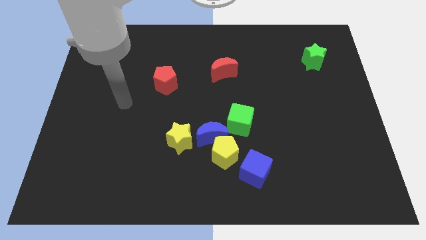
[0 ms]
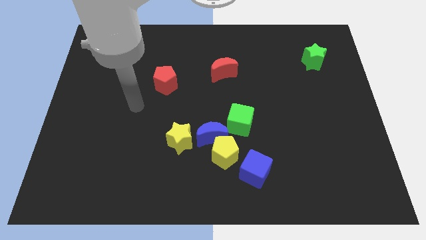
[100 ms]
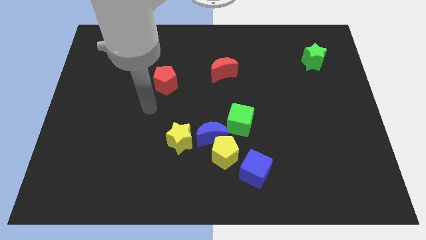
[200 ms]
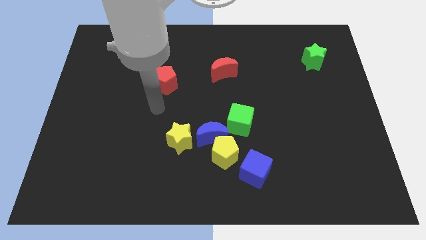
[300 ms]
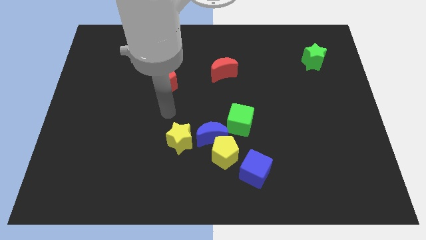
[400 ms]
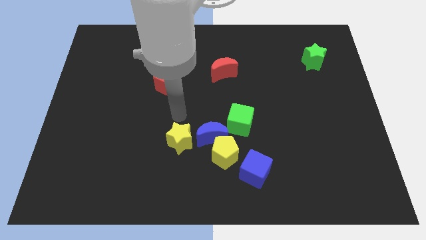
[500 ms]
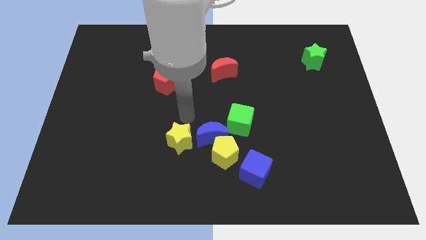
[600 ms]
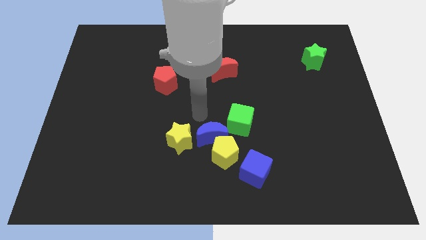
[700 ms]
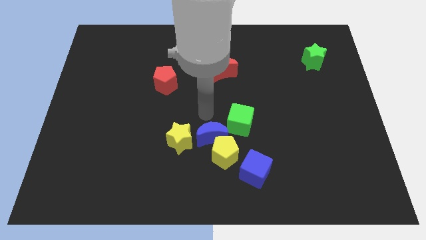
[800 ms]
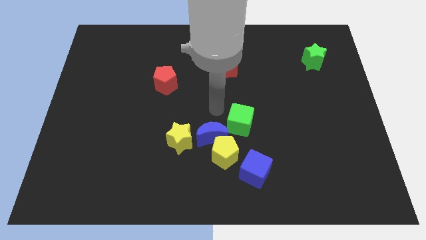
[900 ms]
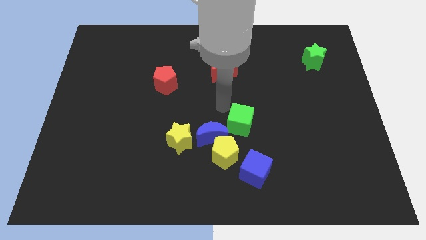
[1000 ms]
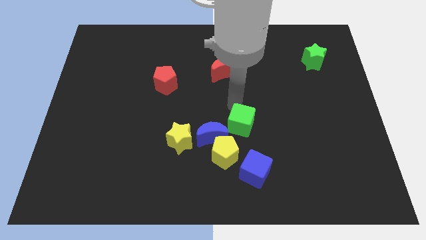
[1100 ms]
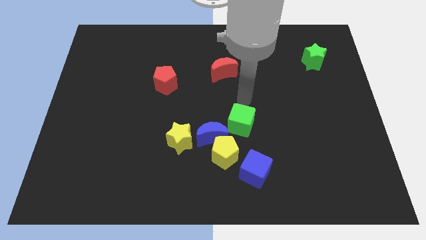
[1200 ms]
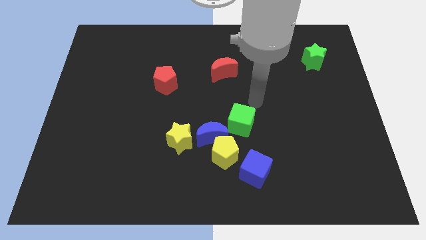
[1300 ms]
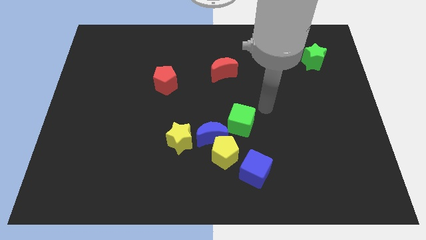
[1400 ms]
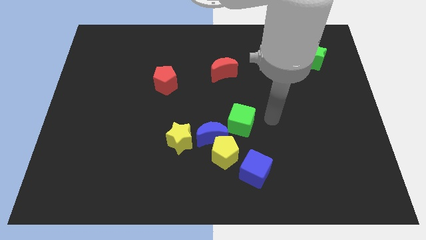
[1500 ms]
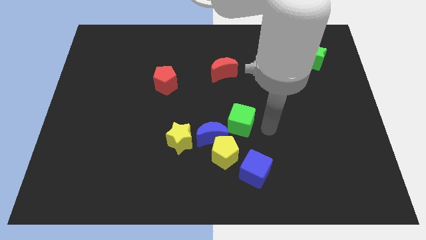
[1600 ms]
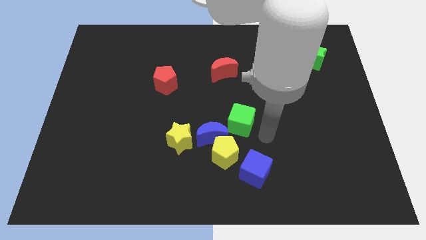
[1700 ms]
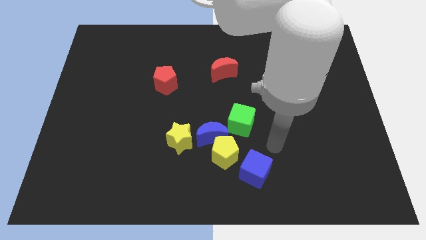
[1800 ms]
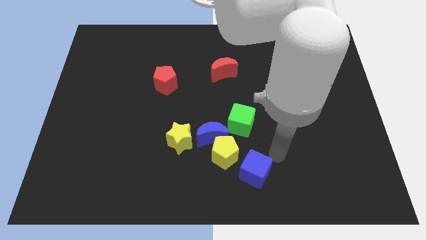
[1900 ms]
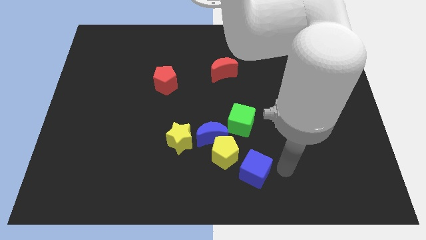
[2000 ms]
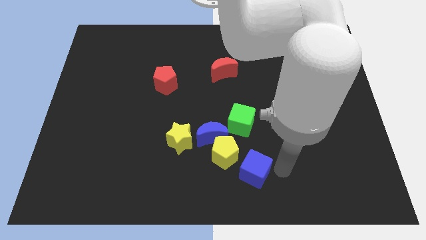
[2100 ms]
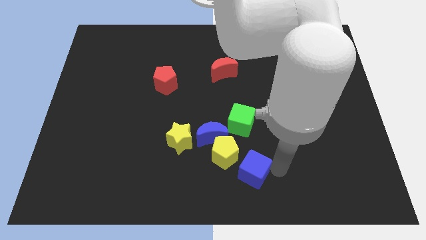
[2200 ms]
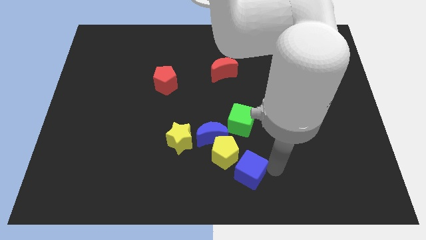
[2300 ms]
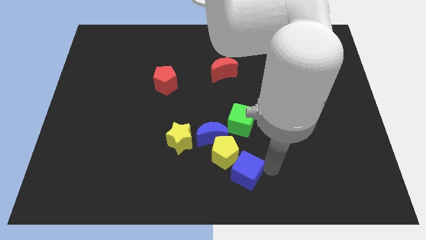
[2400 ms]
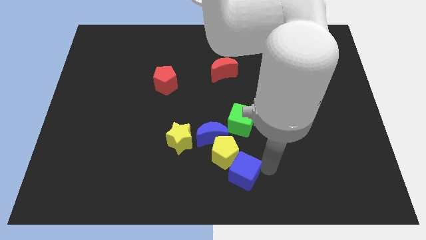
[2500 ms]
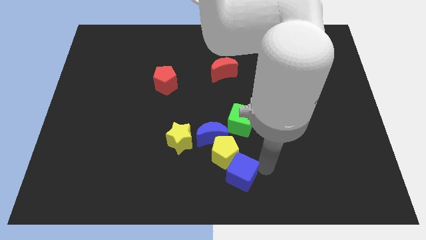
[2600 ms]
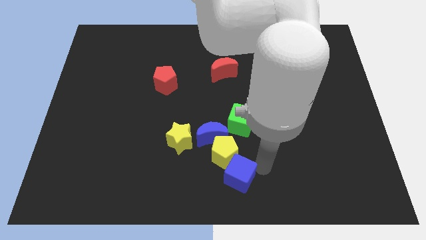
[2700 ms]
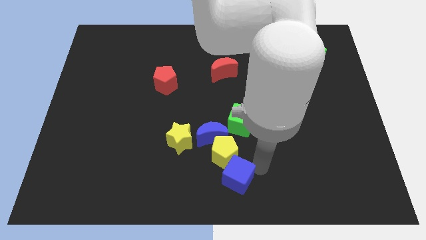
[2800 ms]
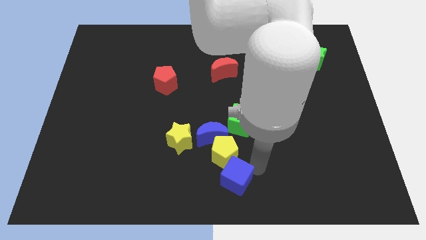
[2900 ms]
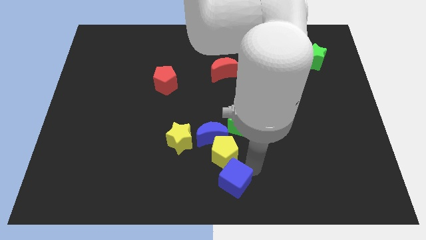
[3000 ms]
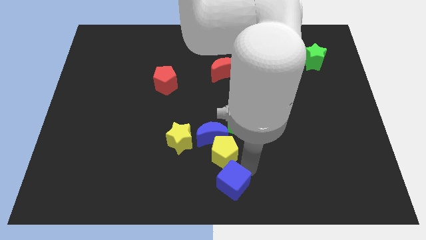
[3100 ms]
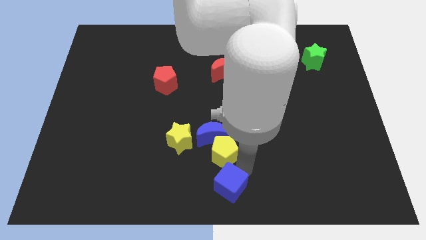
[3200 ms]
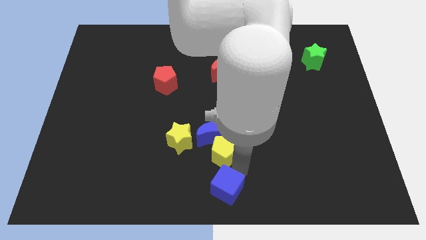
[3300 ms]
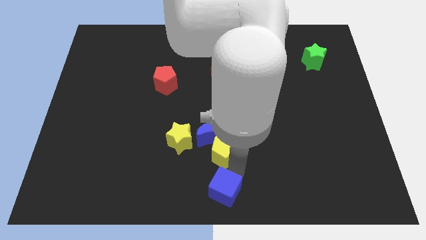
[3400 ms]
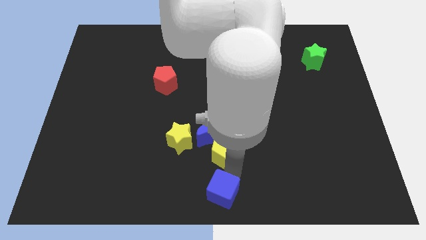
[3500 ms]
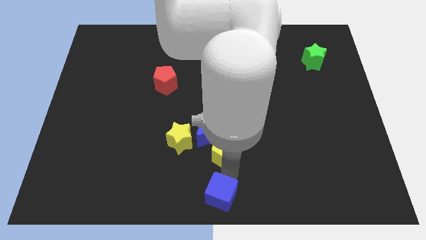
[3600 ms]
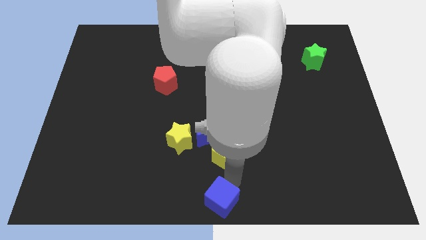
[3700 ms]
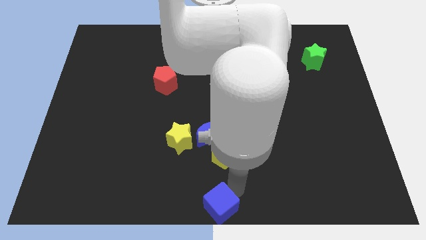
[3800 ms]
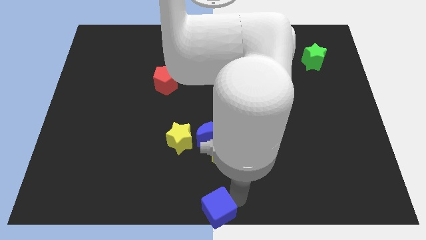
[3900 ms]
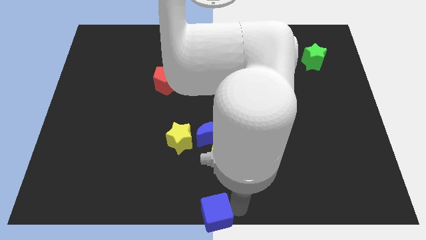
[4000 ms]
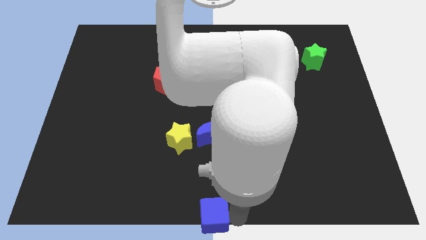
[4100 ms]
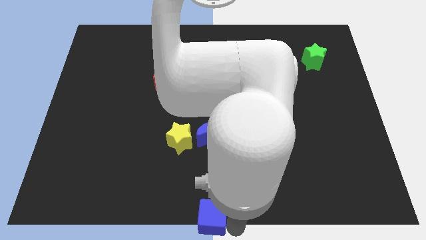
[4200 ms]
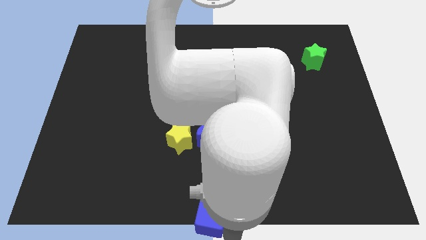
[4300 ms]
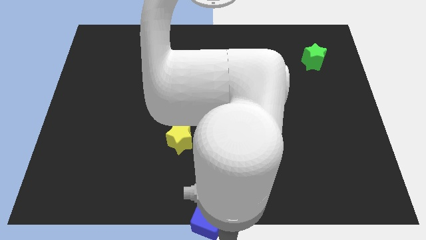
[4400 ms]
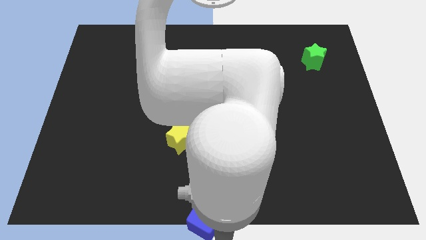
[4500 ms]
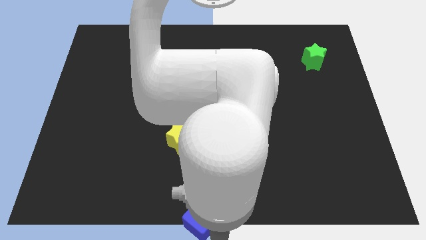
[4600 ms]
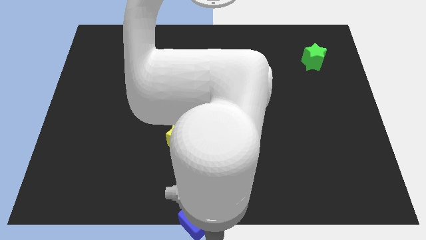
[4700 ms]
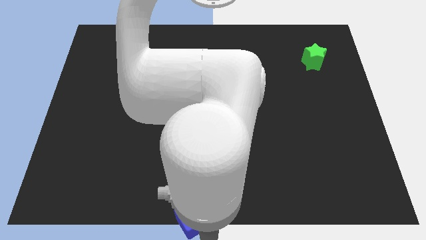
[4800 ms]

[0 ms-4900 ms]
slide the blue cube left somewhat

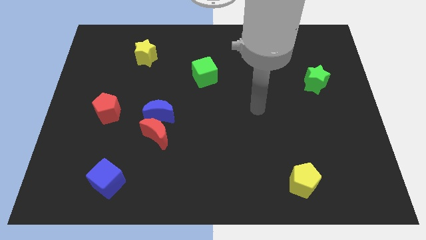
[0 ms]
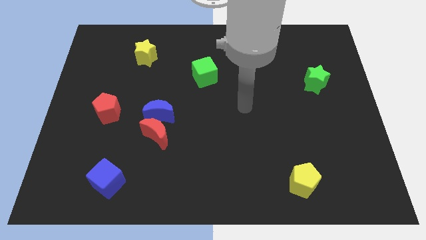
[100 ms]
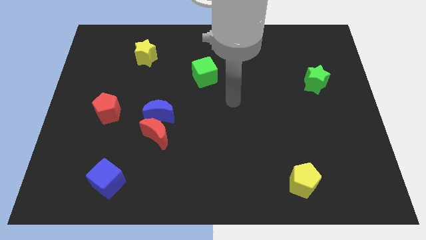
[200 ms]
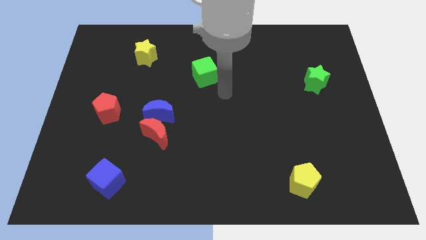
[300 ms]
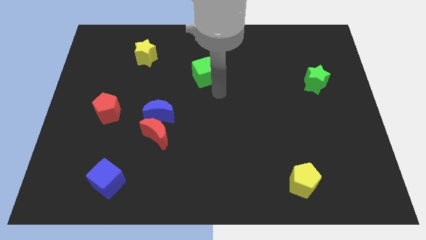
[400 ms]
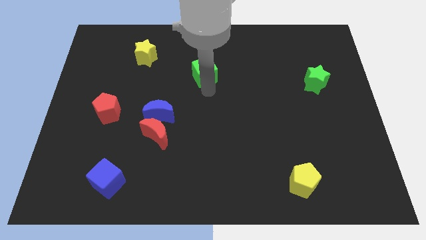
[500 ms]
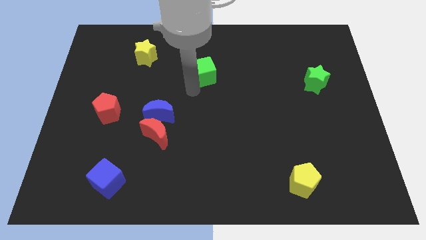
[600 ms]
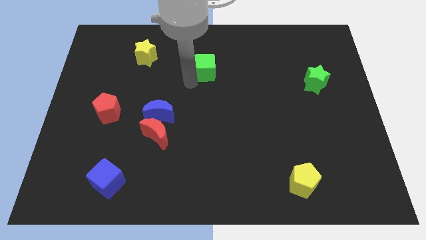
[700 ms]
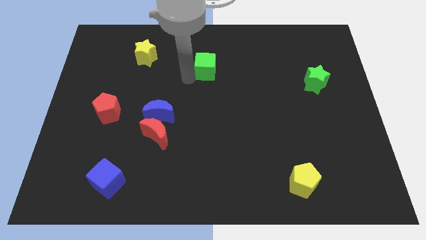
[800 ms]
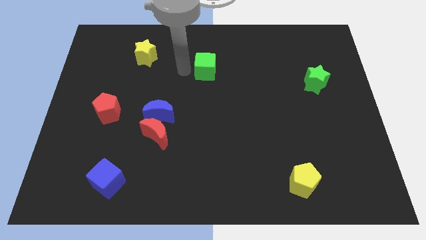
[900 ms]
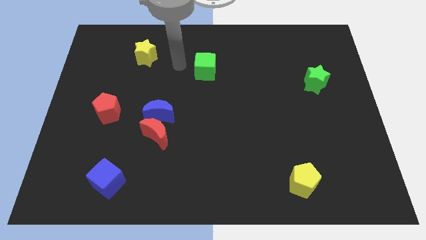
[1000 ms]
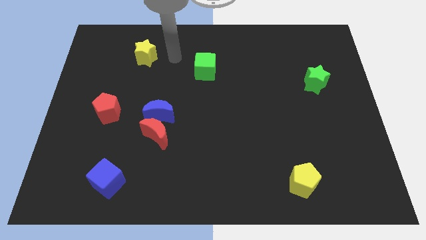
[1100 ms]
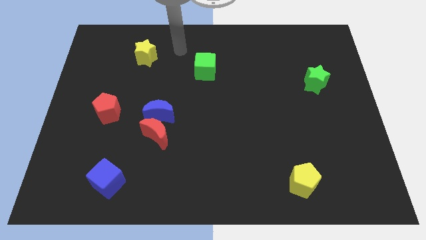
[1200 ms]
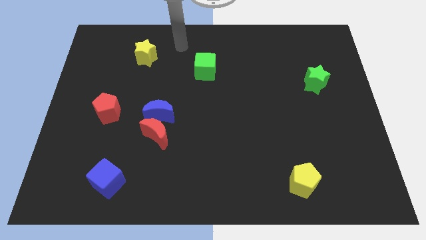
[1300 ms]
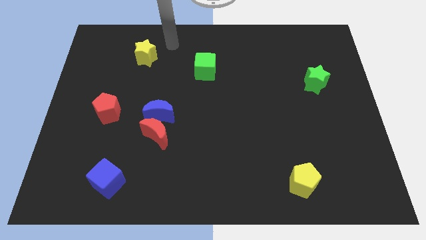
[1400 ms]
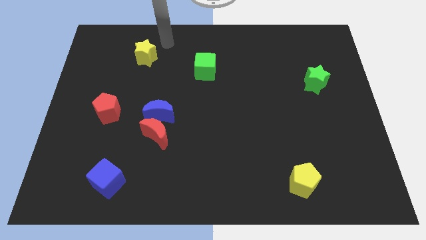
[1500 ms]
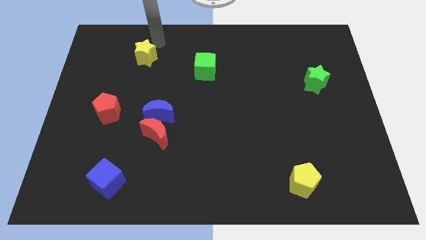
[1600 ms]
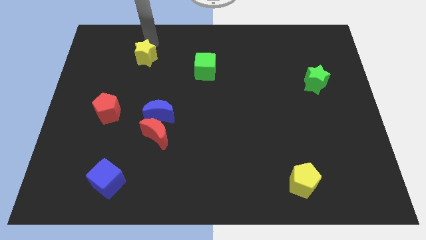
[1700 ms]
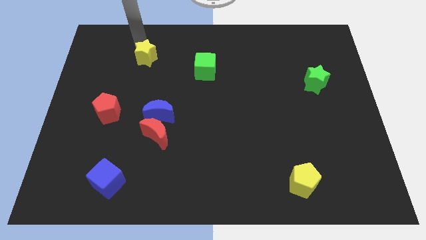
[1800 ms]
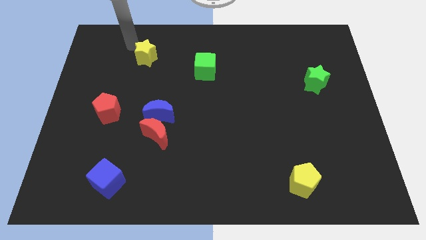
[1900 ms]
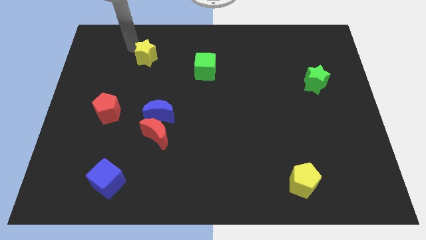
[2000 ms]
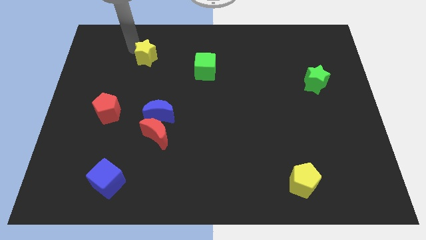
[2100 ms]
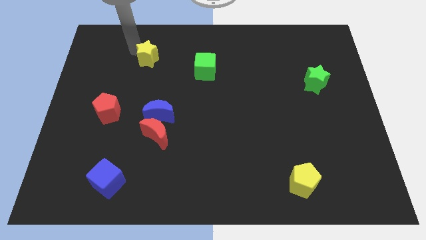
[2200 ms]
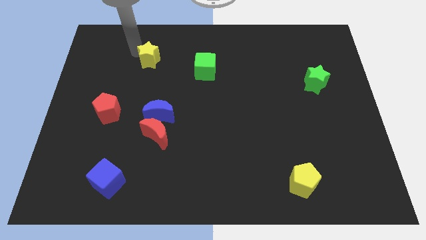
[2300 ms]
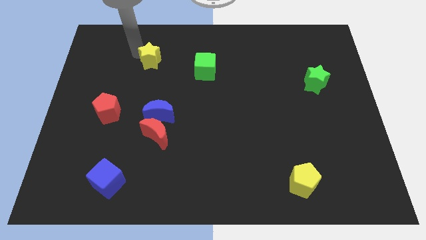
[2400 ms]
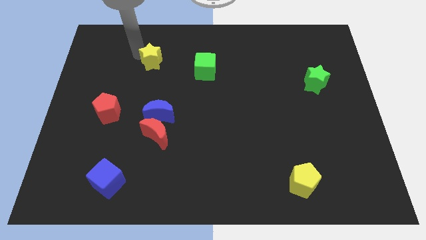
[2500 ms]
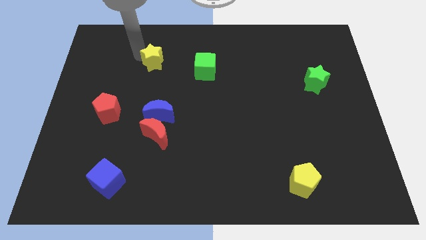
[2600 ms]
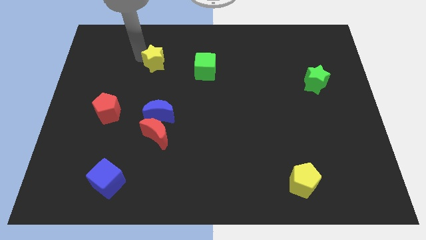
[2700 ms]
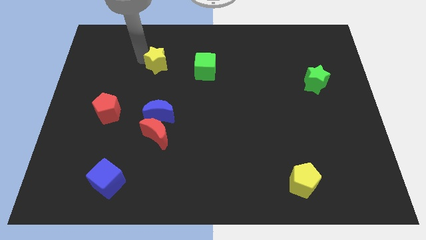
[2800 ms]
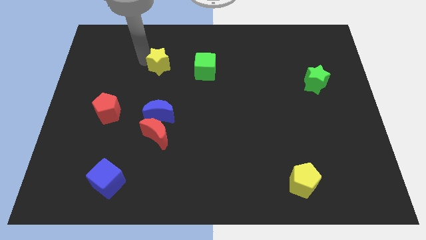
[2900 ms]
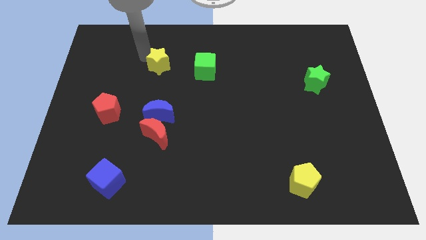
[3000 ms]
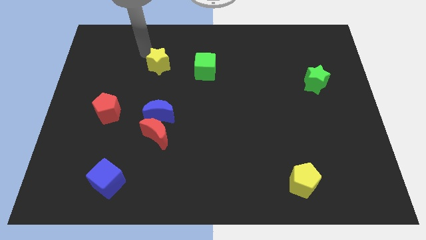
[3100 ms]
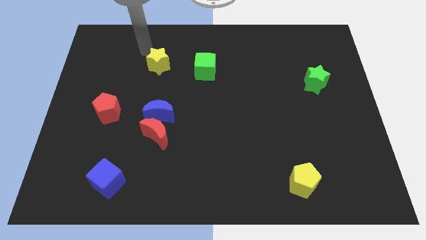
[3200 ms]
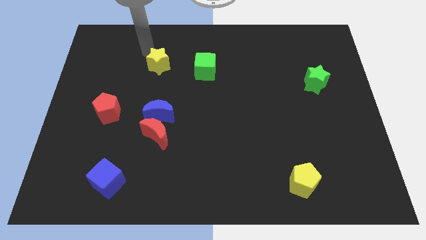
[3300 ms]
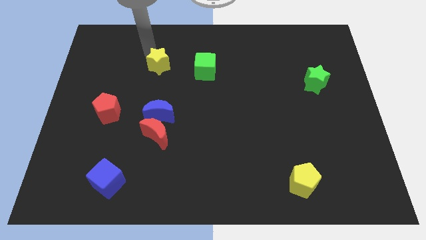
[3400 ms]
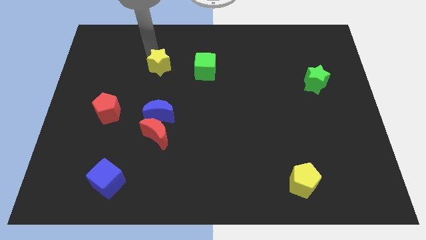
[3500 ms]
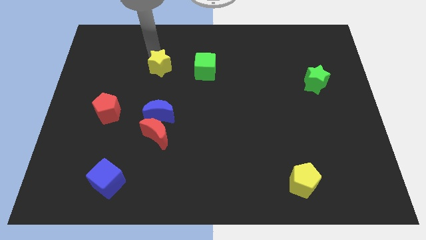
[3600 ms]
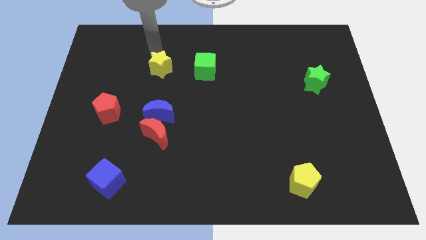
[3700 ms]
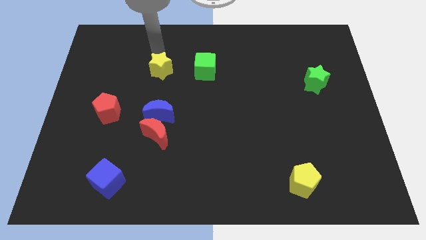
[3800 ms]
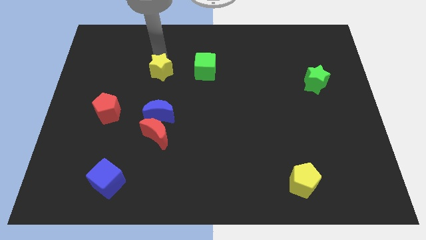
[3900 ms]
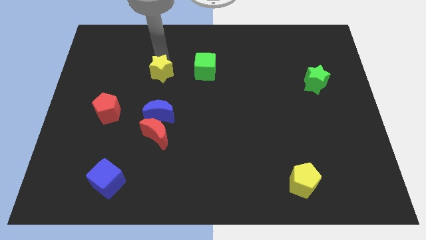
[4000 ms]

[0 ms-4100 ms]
push the yellow star slightly downwards and right diagonally
